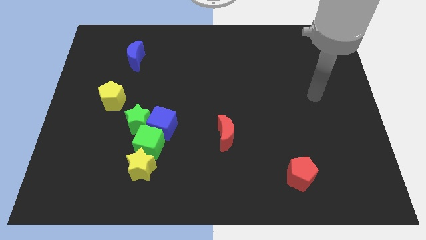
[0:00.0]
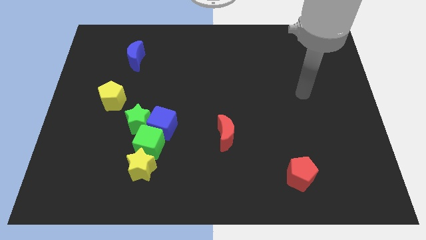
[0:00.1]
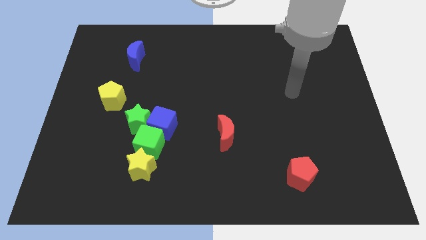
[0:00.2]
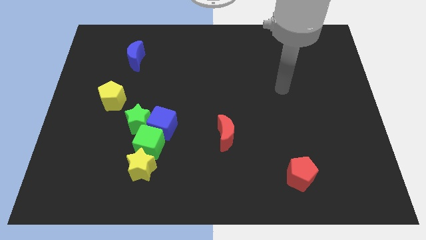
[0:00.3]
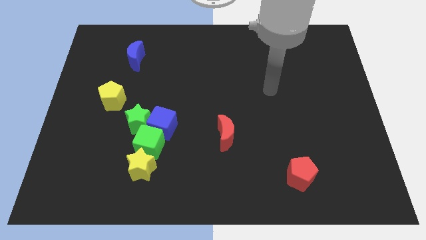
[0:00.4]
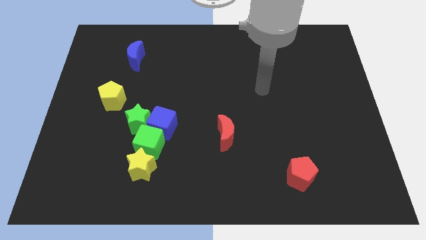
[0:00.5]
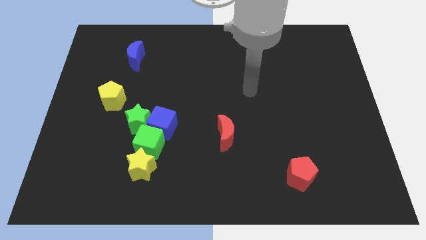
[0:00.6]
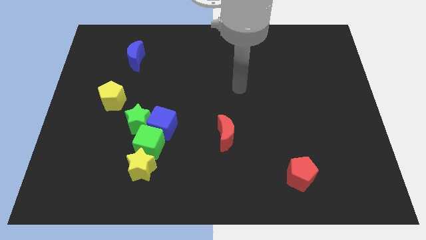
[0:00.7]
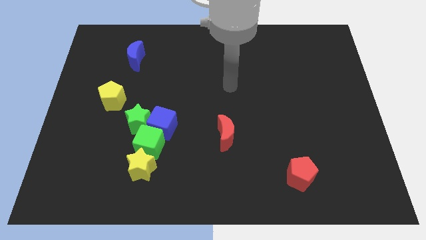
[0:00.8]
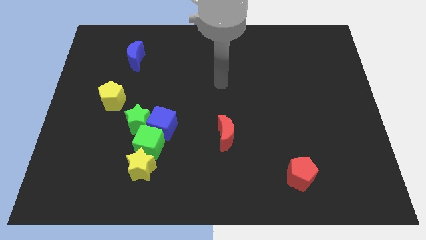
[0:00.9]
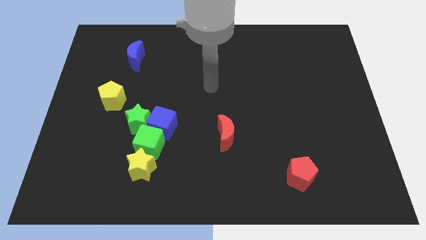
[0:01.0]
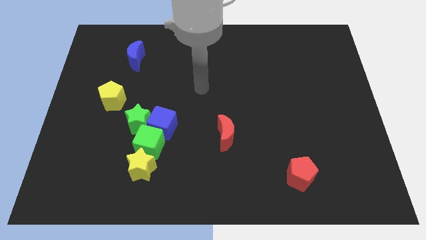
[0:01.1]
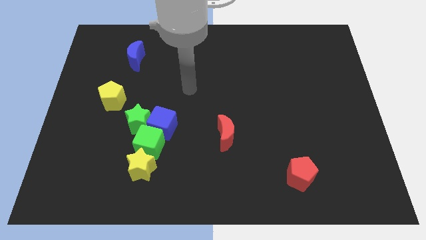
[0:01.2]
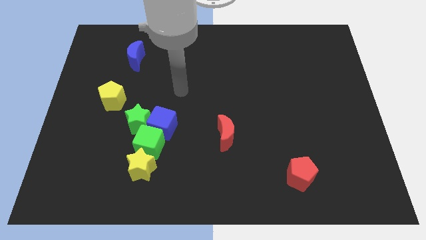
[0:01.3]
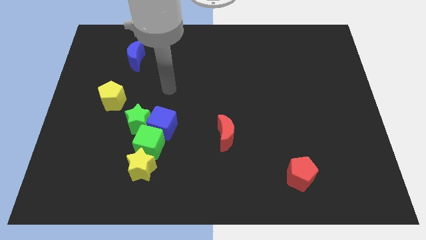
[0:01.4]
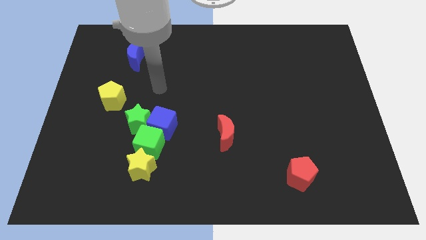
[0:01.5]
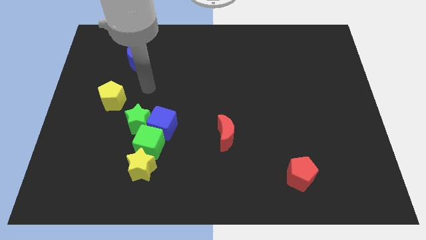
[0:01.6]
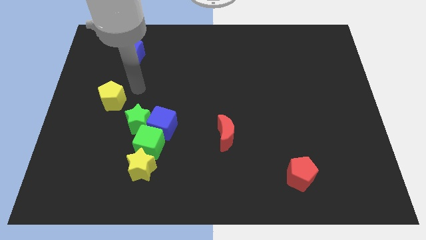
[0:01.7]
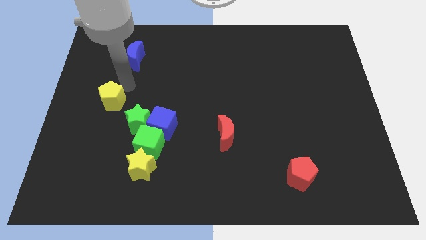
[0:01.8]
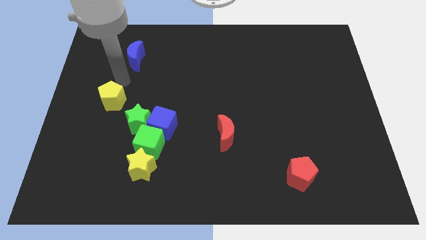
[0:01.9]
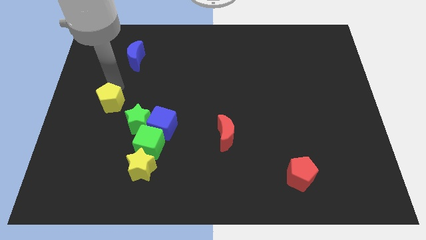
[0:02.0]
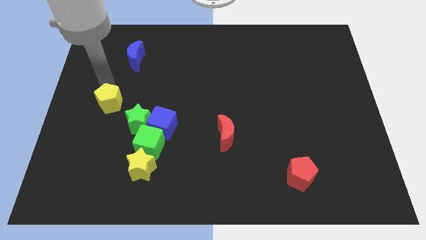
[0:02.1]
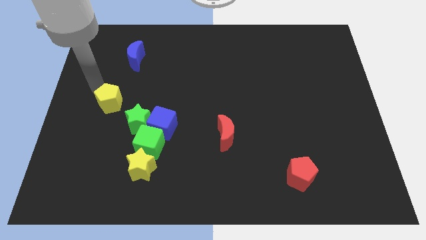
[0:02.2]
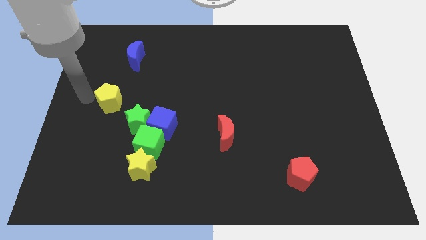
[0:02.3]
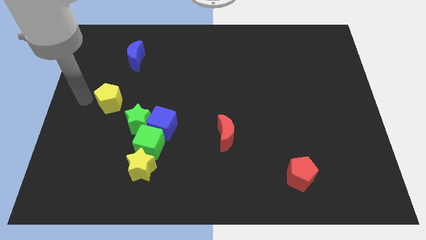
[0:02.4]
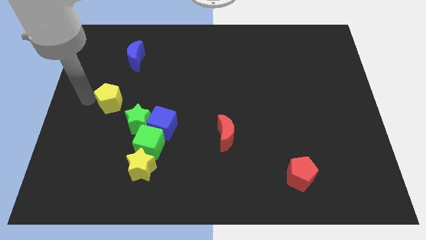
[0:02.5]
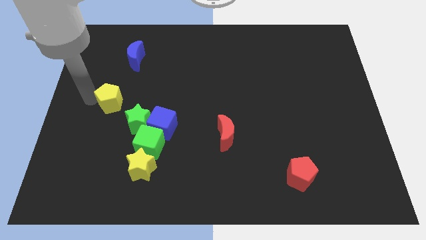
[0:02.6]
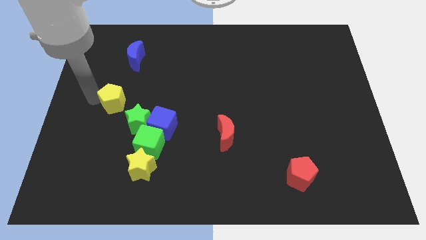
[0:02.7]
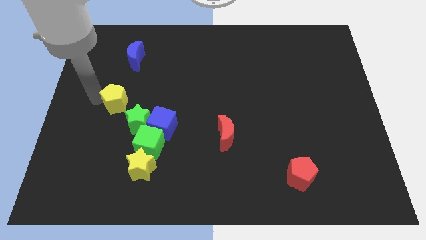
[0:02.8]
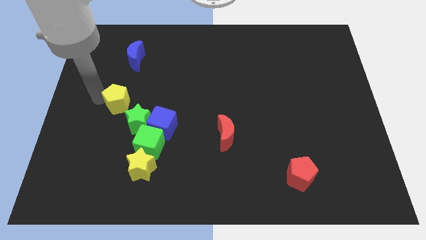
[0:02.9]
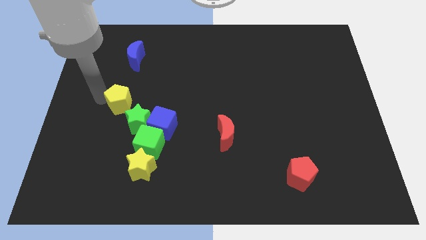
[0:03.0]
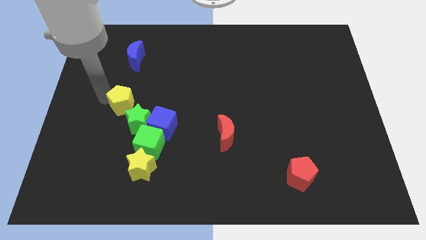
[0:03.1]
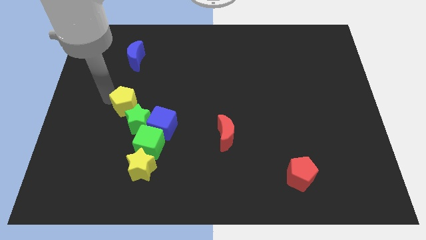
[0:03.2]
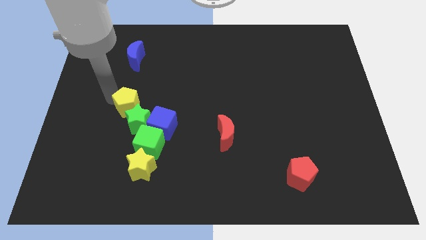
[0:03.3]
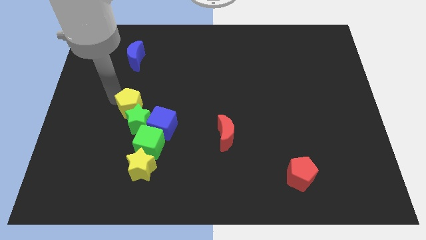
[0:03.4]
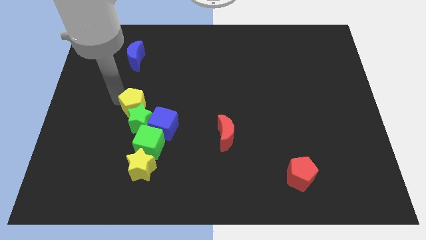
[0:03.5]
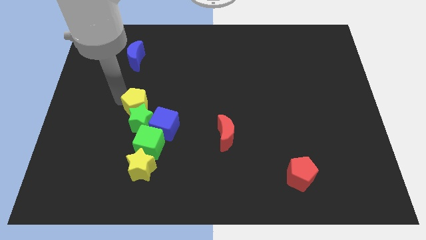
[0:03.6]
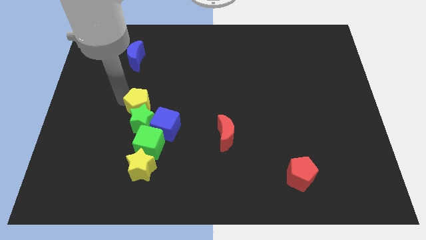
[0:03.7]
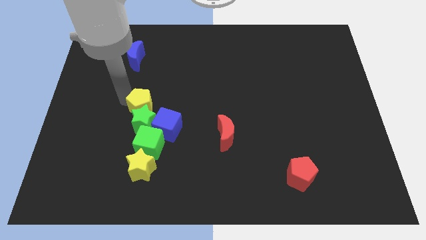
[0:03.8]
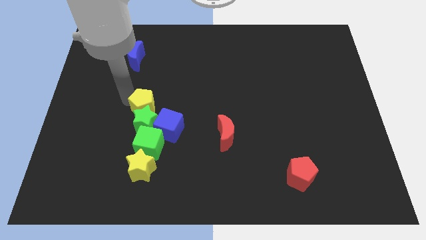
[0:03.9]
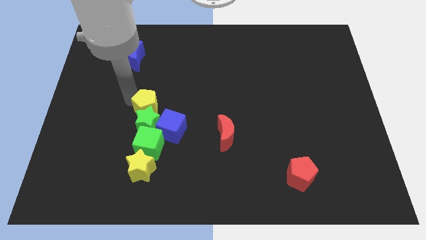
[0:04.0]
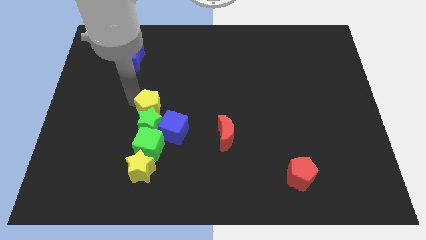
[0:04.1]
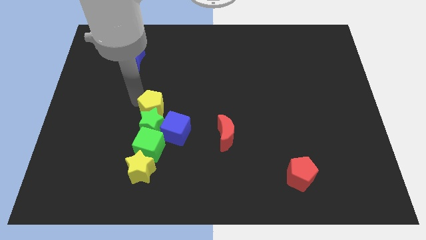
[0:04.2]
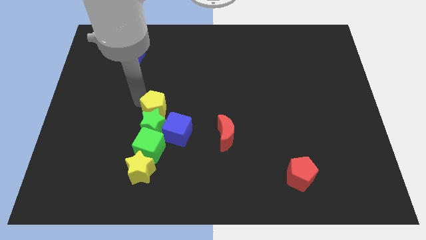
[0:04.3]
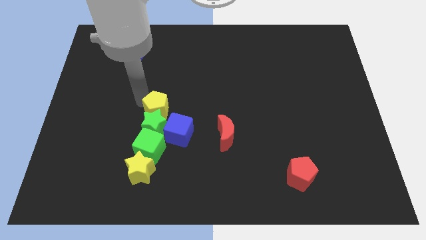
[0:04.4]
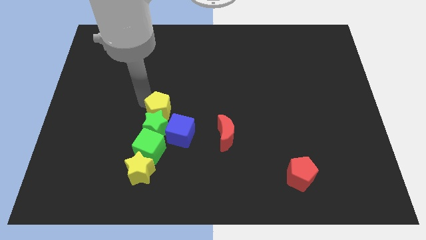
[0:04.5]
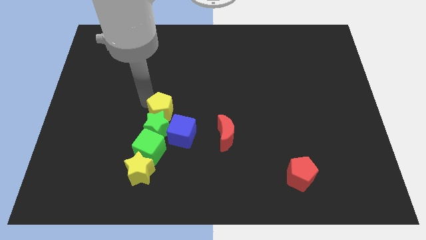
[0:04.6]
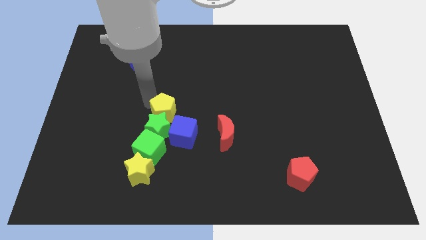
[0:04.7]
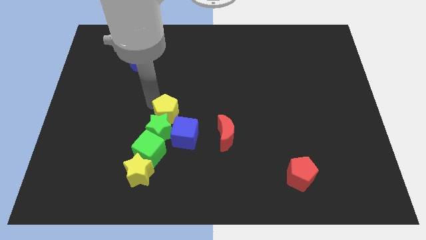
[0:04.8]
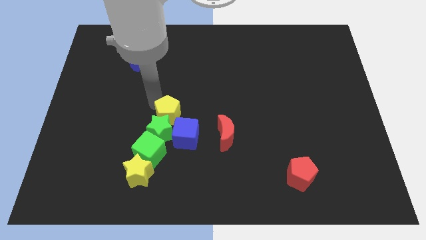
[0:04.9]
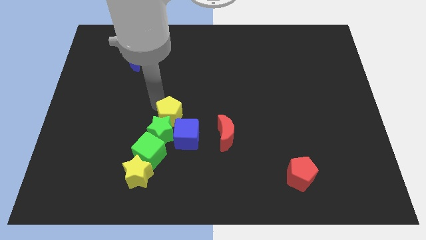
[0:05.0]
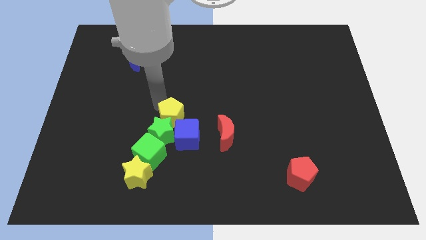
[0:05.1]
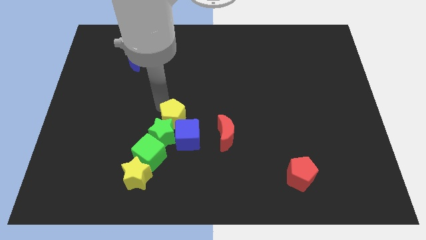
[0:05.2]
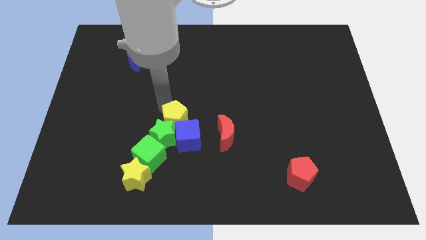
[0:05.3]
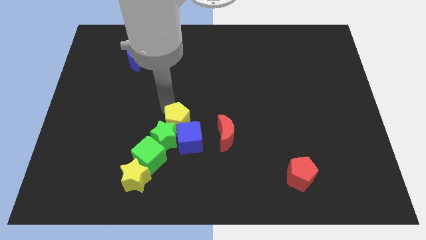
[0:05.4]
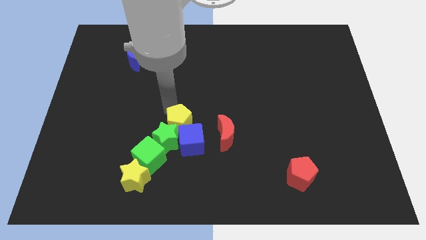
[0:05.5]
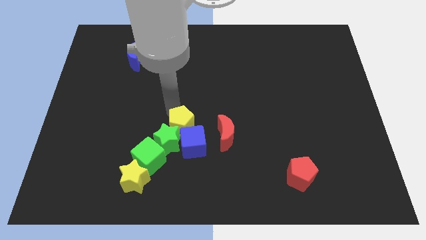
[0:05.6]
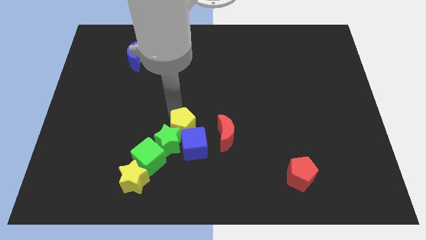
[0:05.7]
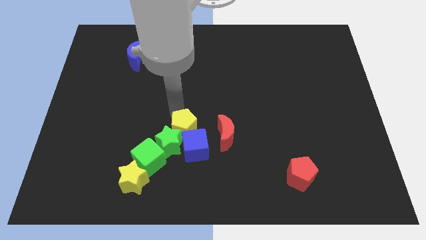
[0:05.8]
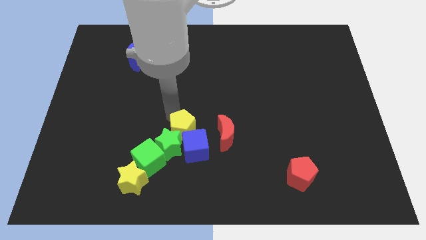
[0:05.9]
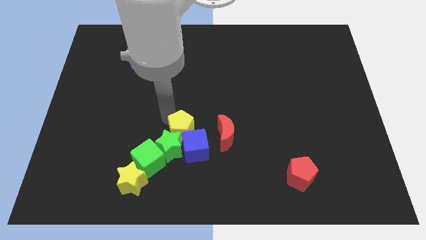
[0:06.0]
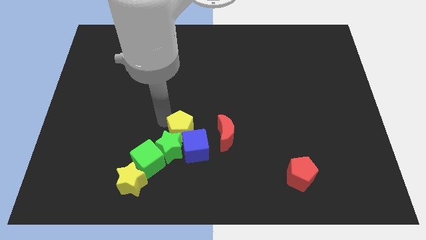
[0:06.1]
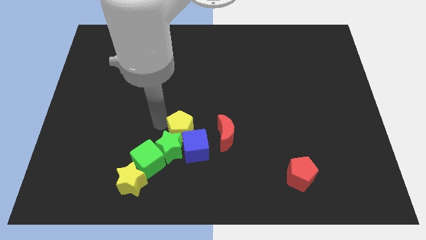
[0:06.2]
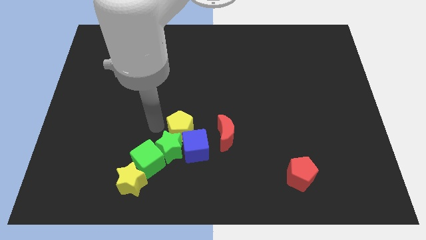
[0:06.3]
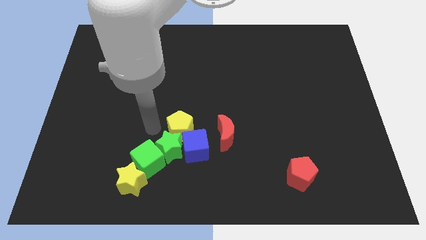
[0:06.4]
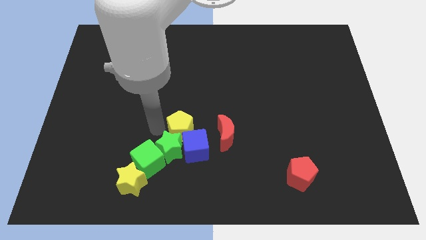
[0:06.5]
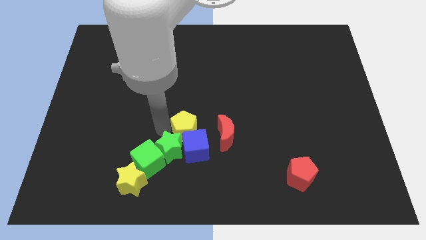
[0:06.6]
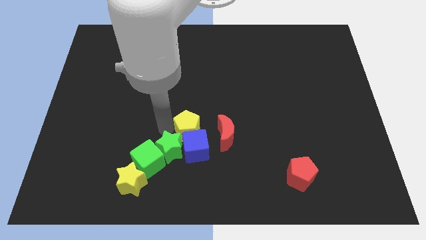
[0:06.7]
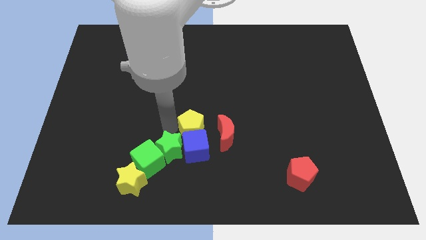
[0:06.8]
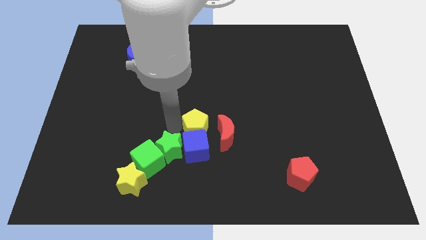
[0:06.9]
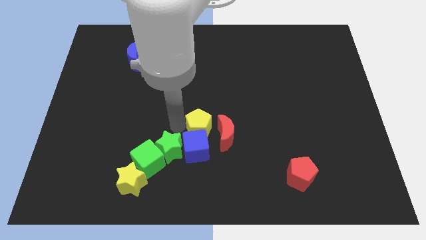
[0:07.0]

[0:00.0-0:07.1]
slide the yellow pentagon to the red moon
